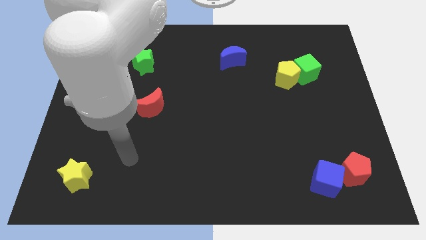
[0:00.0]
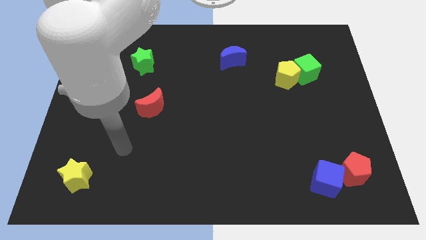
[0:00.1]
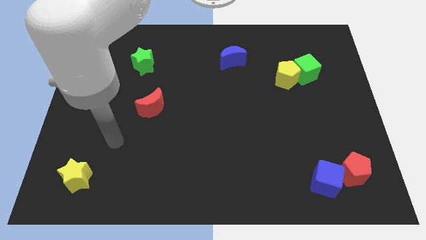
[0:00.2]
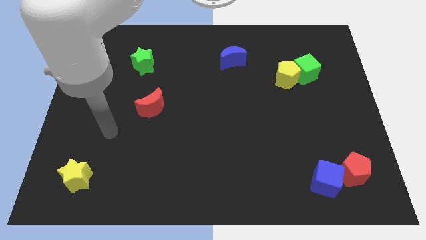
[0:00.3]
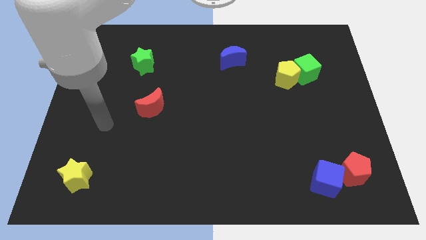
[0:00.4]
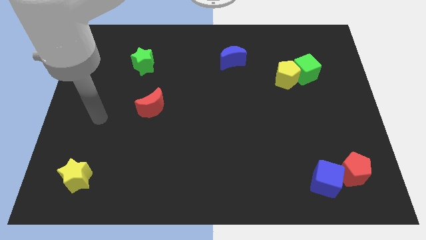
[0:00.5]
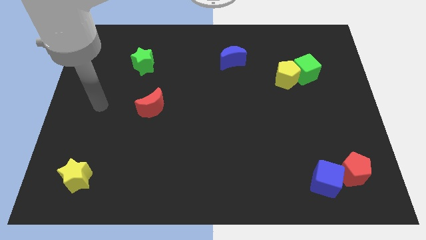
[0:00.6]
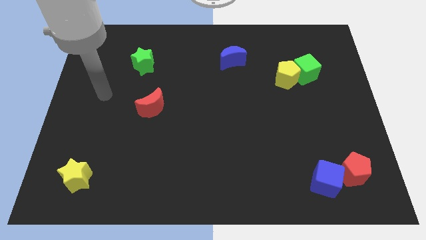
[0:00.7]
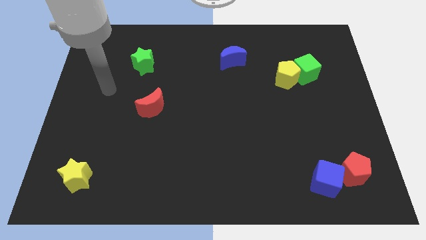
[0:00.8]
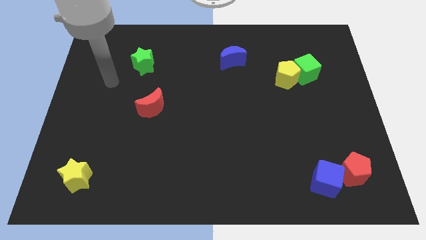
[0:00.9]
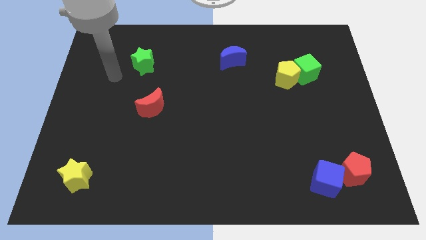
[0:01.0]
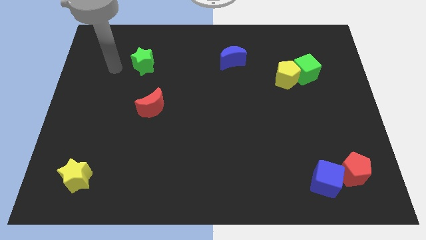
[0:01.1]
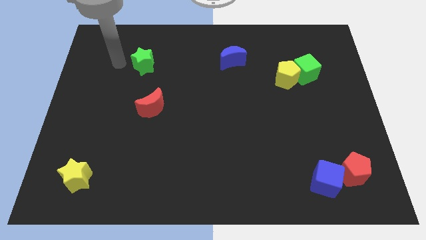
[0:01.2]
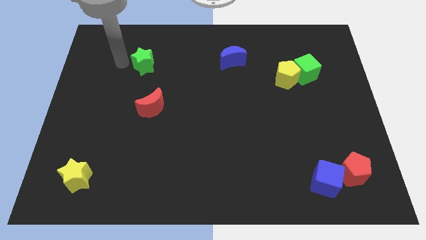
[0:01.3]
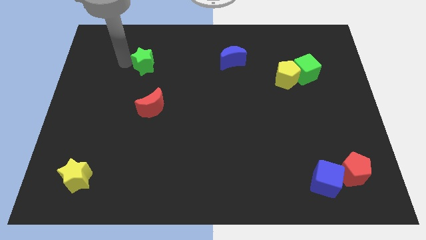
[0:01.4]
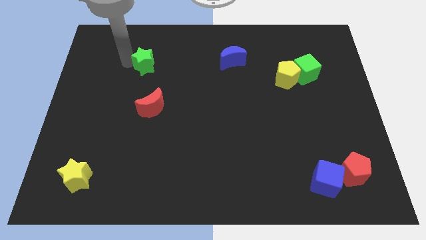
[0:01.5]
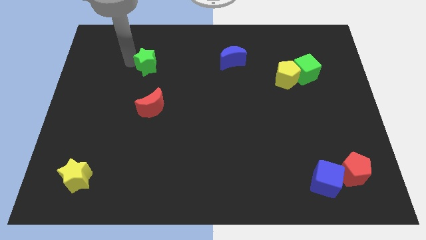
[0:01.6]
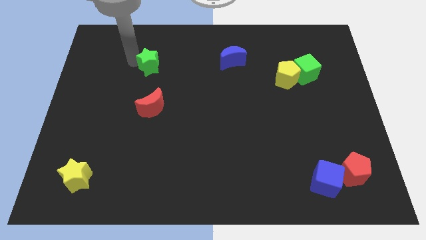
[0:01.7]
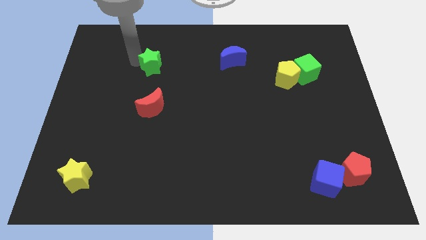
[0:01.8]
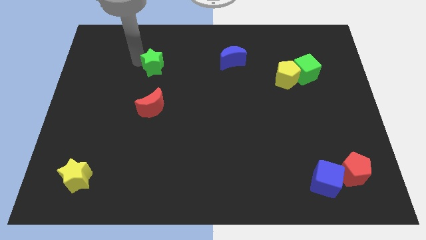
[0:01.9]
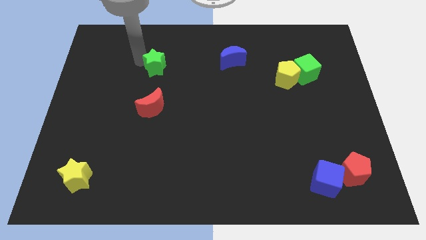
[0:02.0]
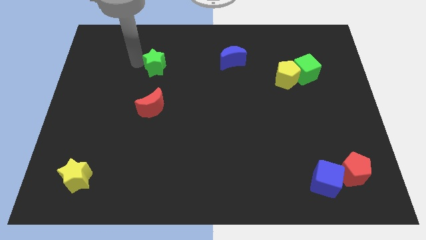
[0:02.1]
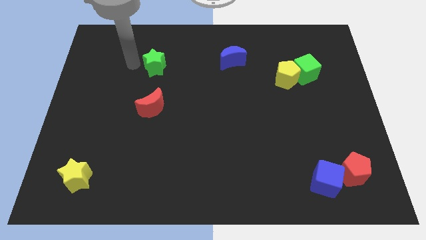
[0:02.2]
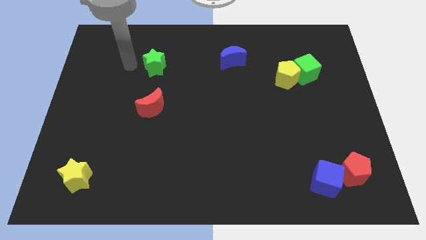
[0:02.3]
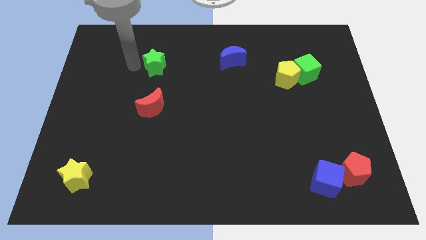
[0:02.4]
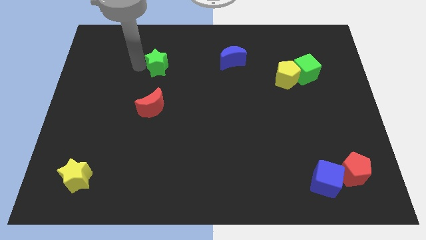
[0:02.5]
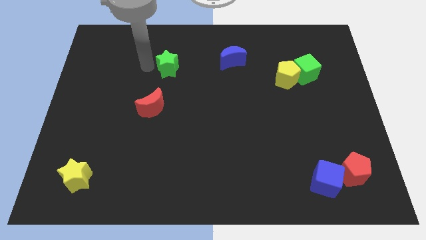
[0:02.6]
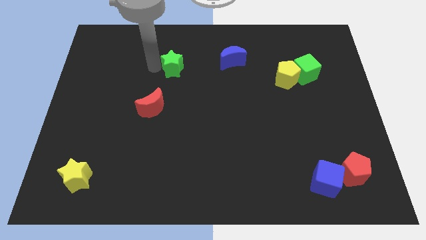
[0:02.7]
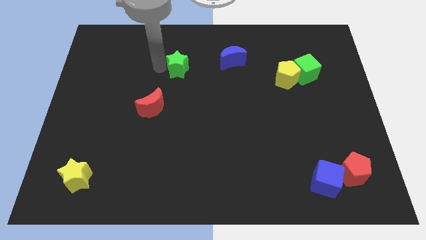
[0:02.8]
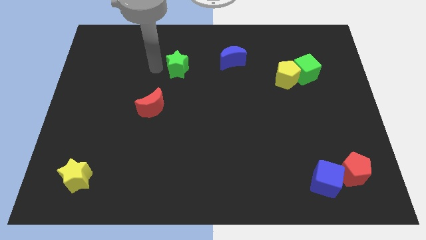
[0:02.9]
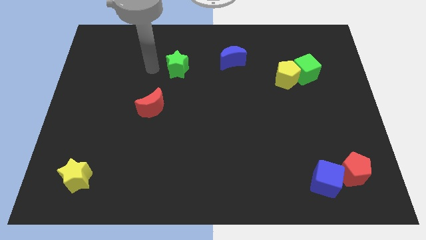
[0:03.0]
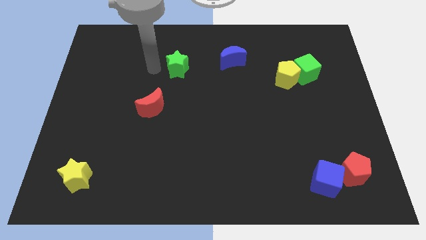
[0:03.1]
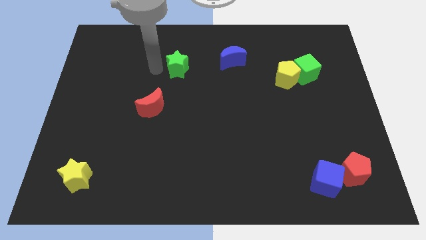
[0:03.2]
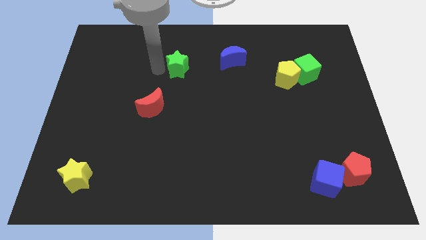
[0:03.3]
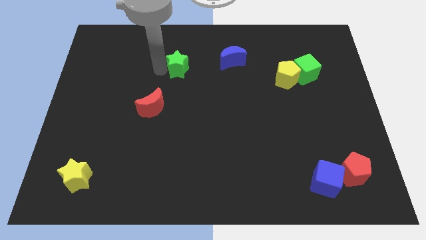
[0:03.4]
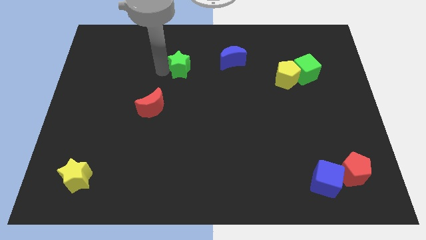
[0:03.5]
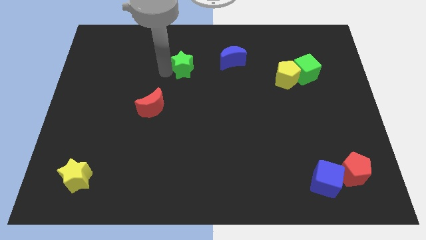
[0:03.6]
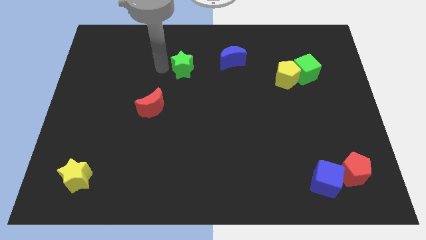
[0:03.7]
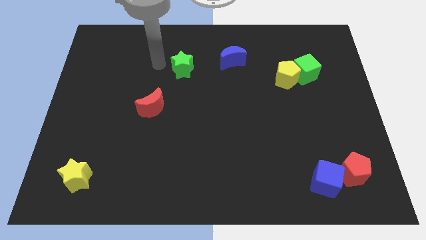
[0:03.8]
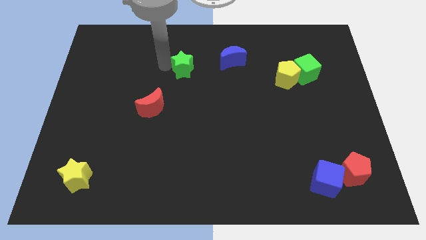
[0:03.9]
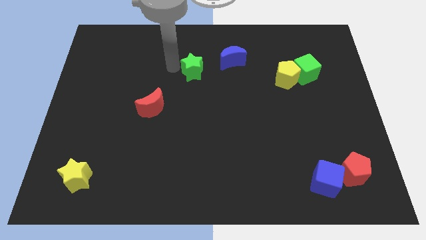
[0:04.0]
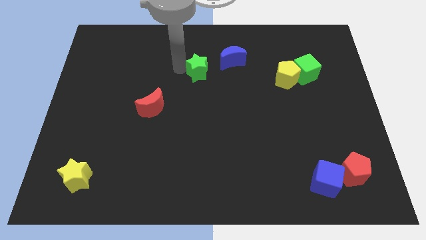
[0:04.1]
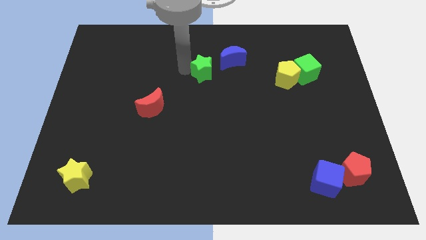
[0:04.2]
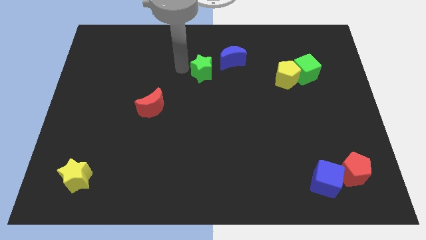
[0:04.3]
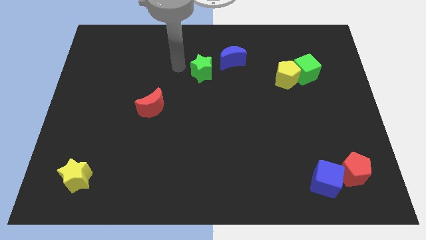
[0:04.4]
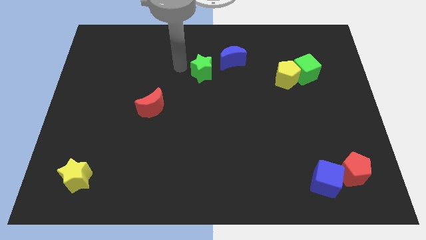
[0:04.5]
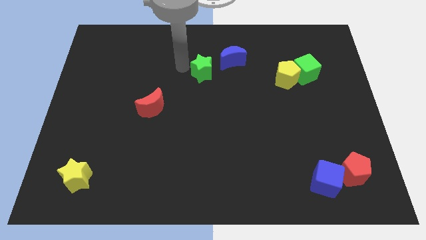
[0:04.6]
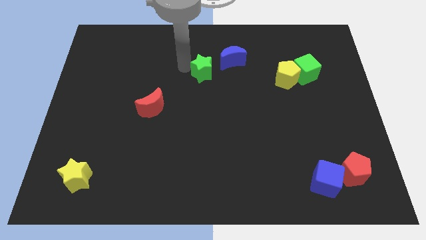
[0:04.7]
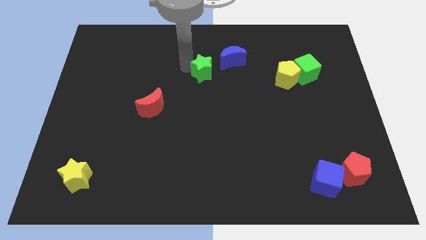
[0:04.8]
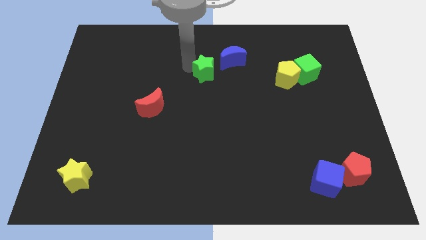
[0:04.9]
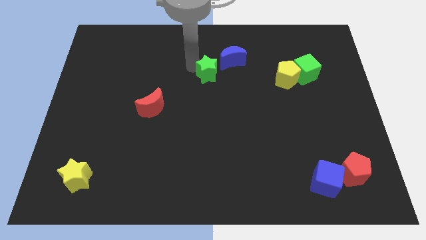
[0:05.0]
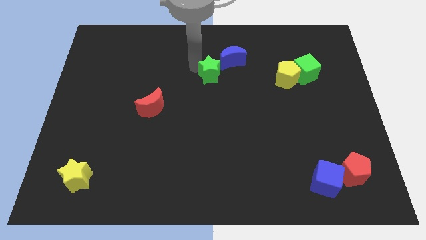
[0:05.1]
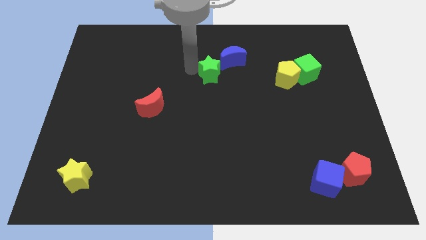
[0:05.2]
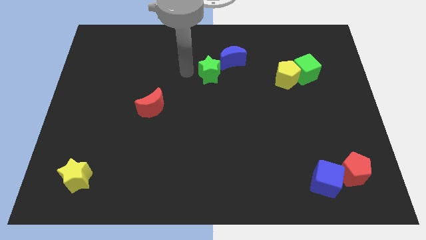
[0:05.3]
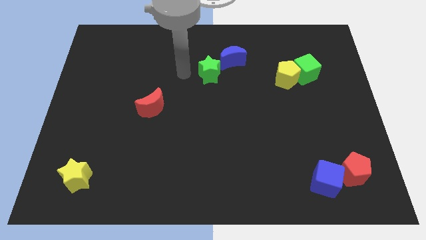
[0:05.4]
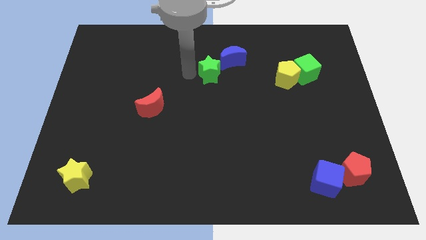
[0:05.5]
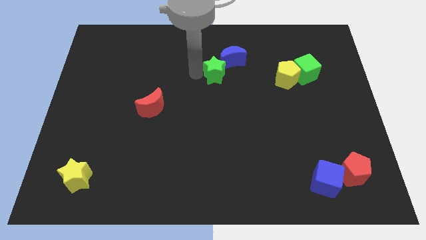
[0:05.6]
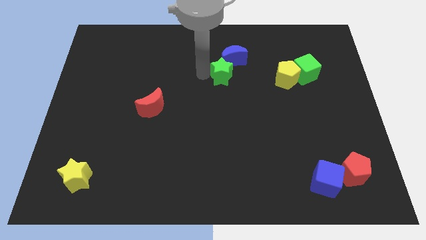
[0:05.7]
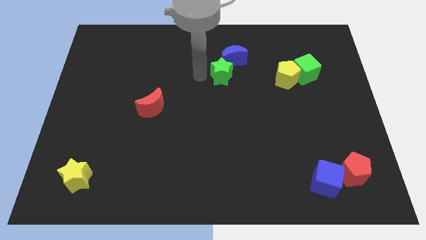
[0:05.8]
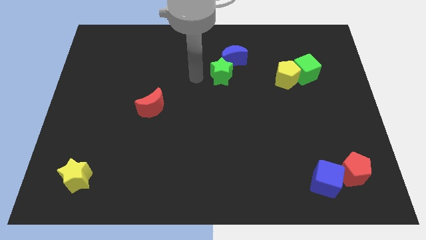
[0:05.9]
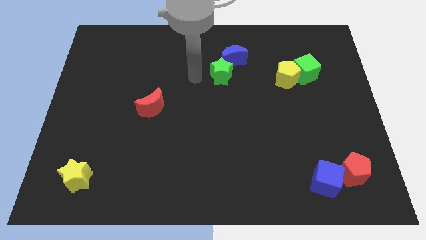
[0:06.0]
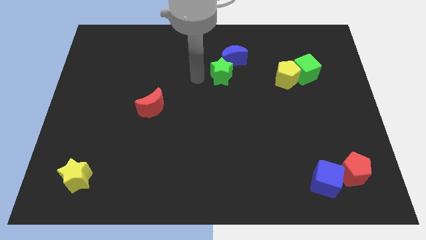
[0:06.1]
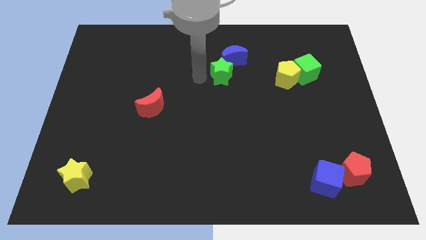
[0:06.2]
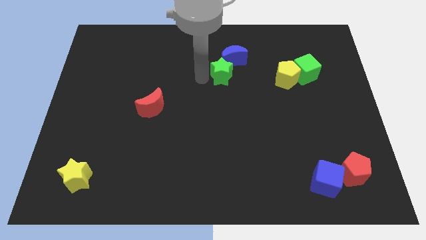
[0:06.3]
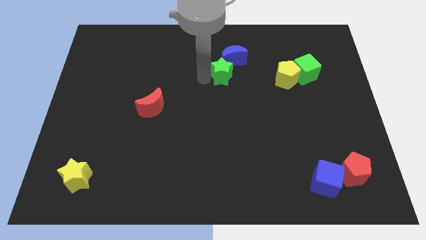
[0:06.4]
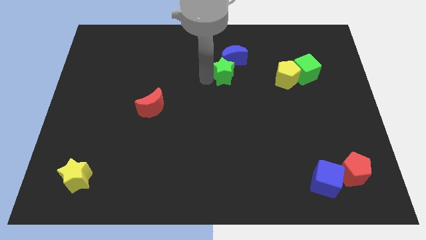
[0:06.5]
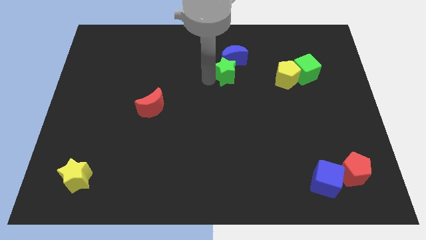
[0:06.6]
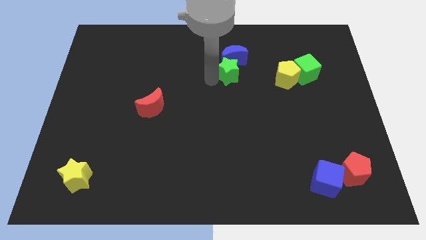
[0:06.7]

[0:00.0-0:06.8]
push the green star diagonally down and to the right of the blue moon
